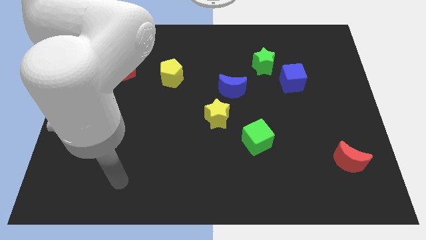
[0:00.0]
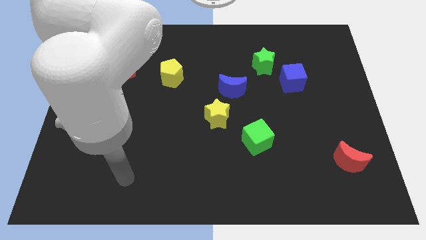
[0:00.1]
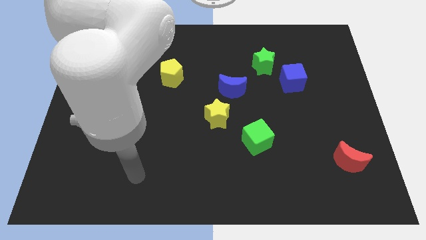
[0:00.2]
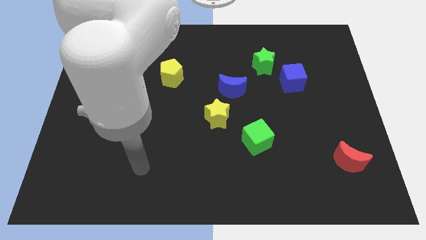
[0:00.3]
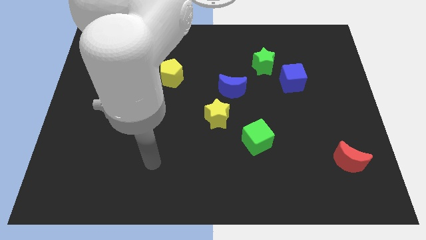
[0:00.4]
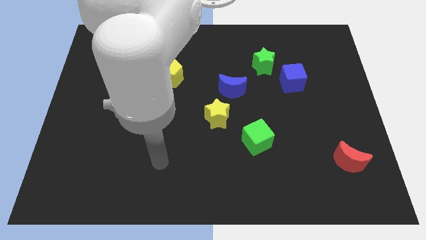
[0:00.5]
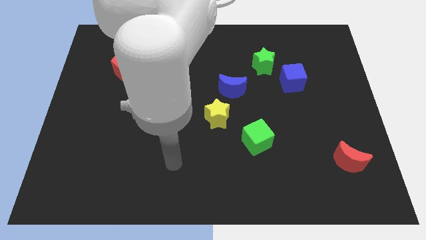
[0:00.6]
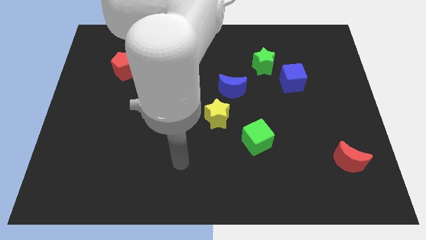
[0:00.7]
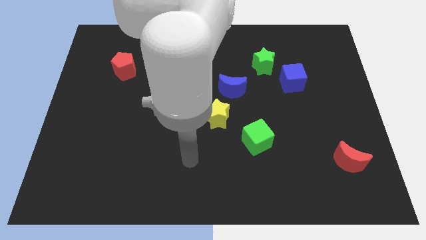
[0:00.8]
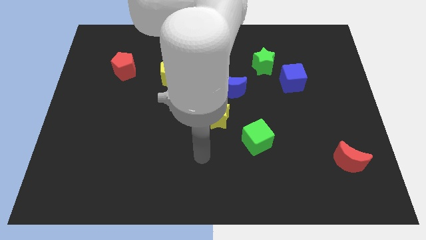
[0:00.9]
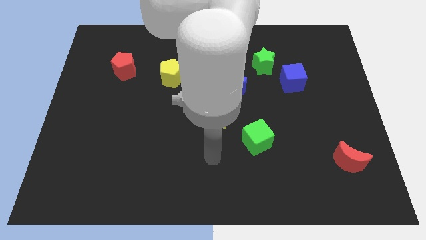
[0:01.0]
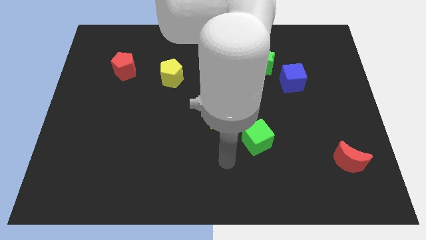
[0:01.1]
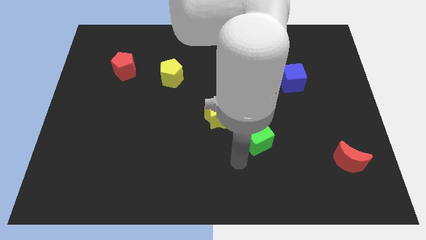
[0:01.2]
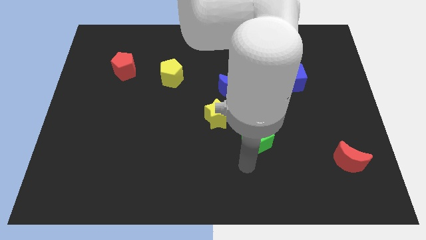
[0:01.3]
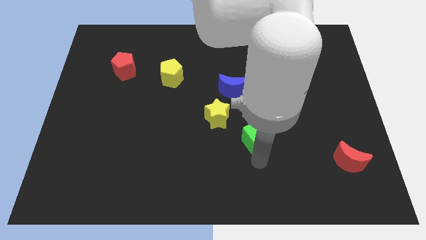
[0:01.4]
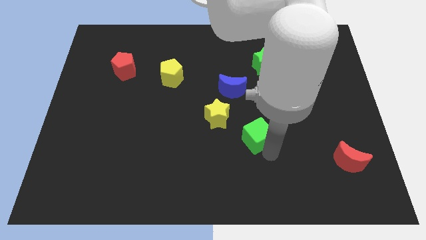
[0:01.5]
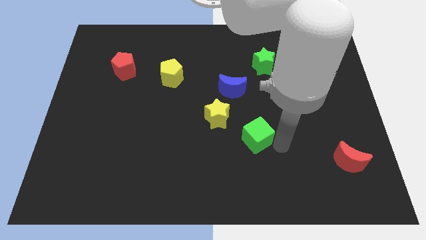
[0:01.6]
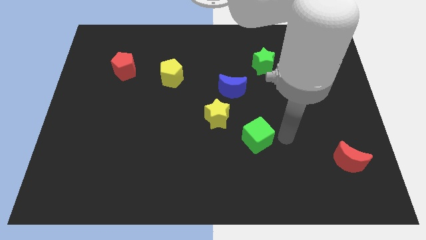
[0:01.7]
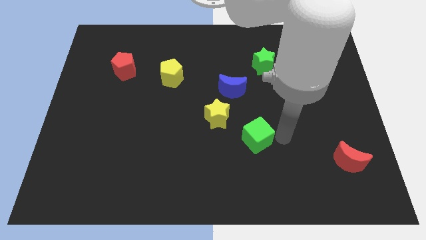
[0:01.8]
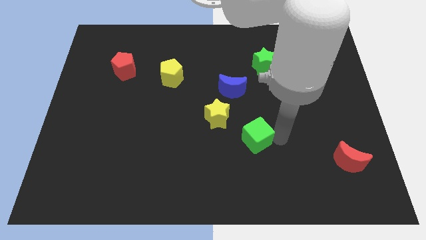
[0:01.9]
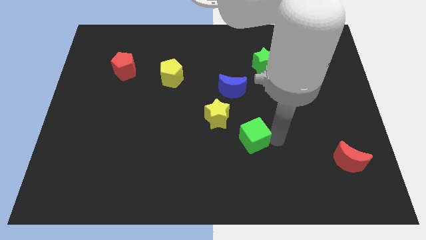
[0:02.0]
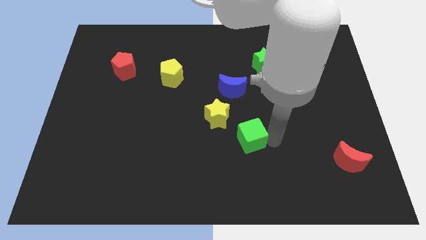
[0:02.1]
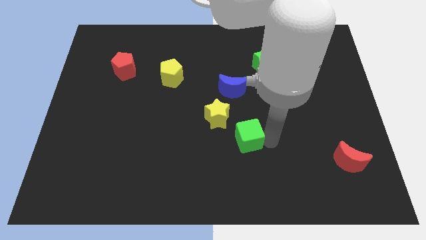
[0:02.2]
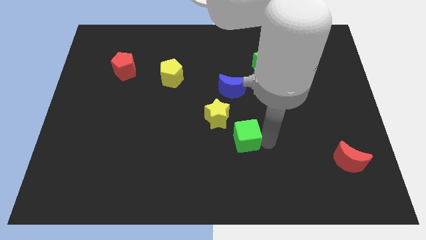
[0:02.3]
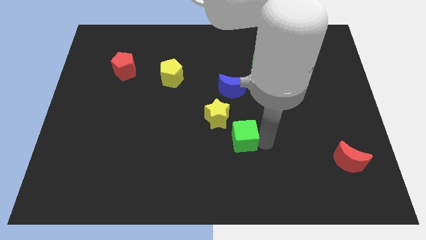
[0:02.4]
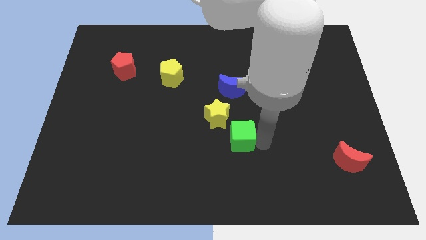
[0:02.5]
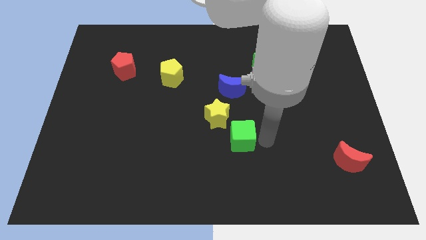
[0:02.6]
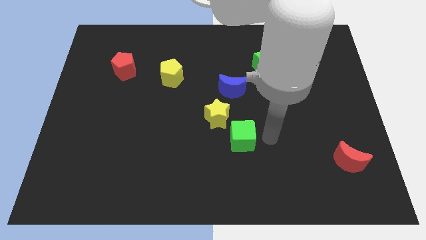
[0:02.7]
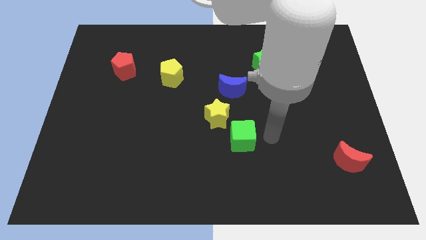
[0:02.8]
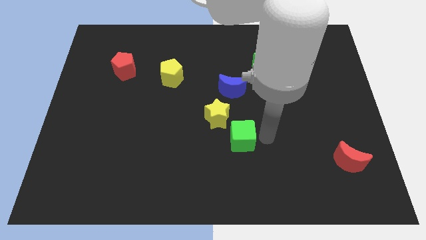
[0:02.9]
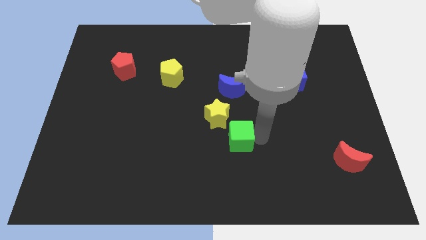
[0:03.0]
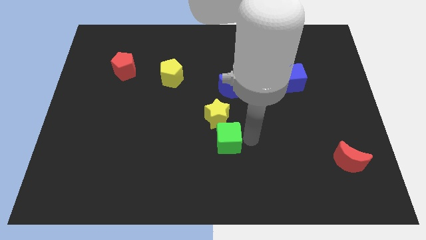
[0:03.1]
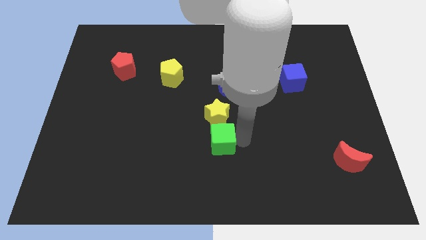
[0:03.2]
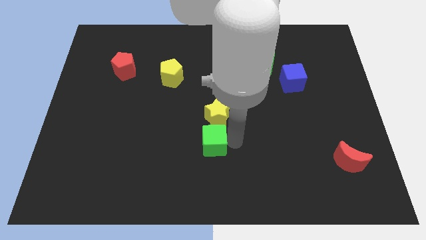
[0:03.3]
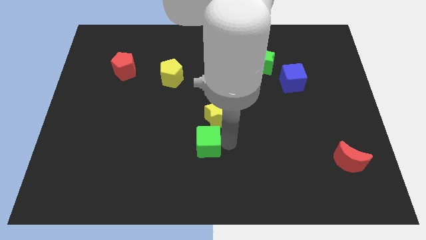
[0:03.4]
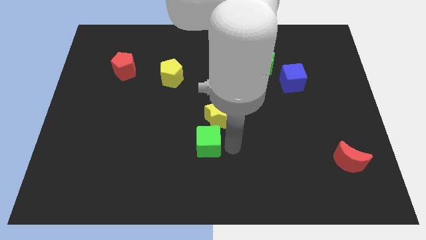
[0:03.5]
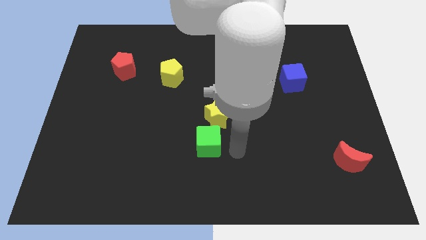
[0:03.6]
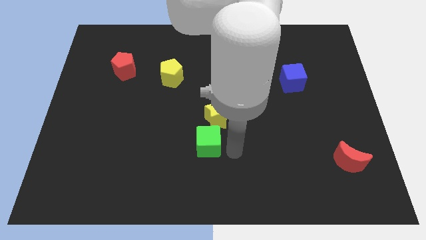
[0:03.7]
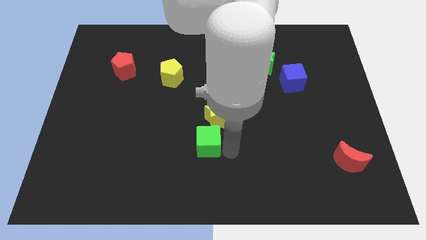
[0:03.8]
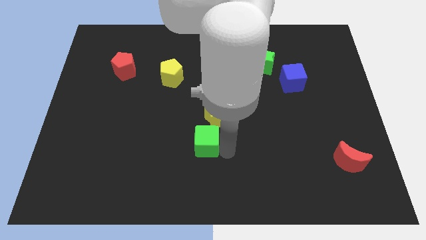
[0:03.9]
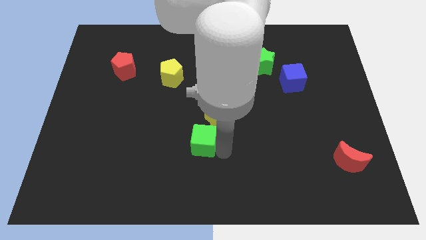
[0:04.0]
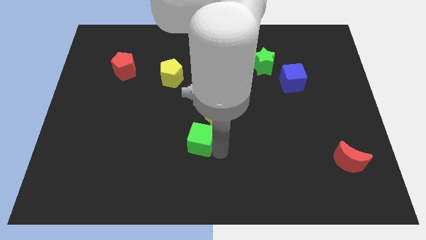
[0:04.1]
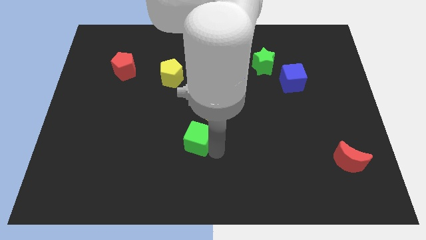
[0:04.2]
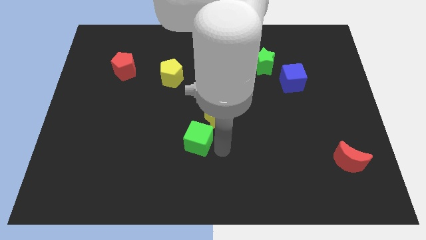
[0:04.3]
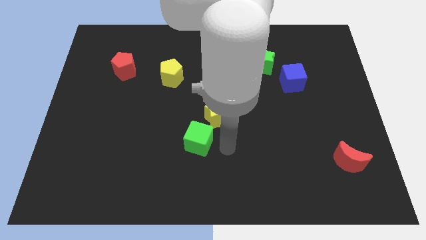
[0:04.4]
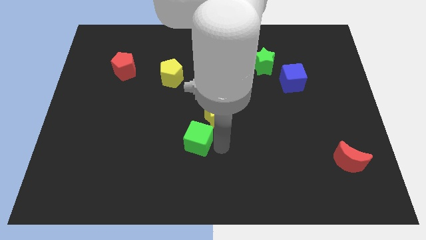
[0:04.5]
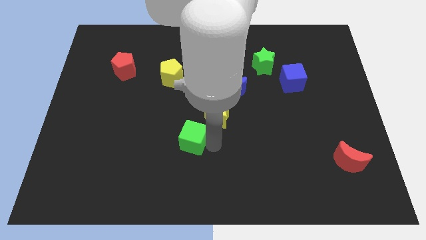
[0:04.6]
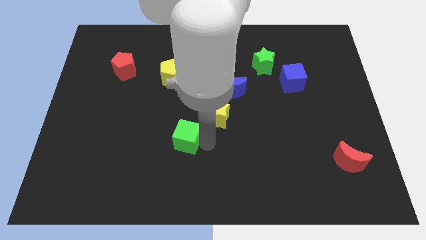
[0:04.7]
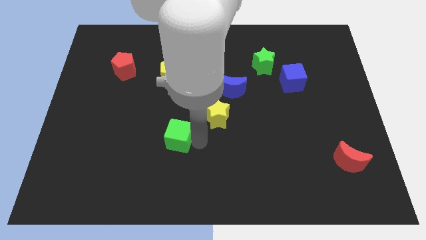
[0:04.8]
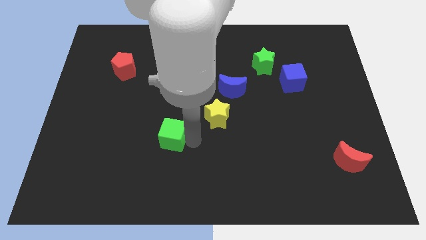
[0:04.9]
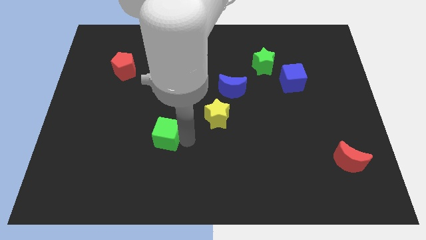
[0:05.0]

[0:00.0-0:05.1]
move the green cube to the left

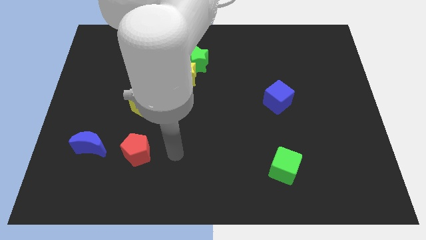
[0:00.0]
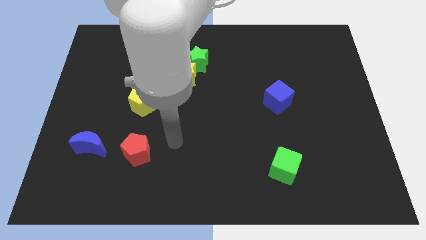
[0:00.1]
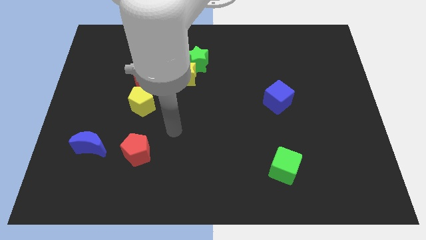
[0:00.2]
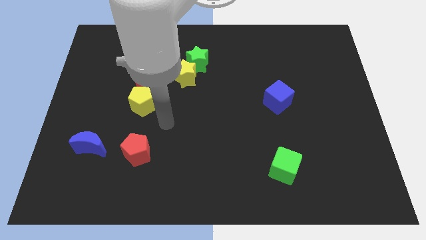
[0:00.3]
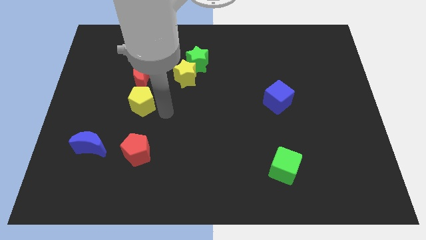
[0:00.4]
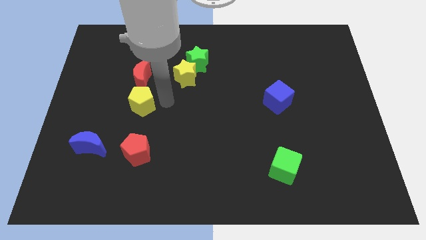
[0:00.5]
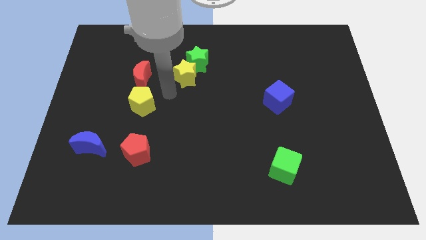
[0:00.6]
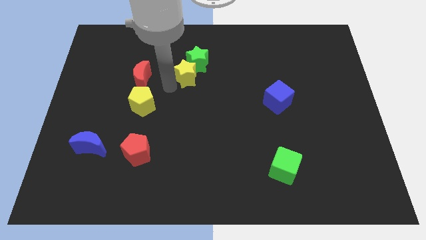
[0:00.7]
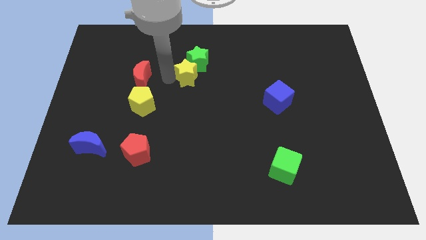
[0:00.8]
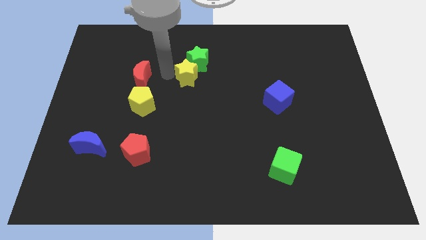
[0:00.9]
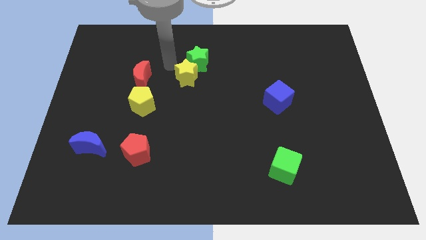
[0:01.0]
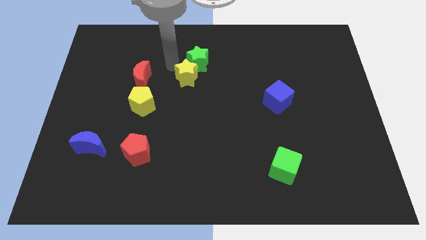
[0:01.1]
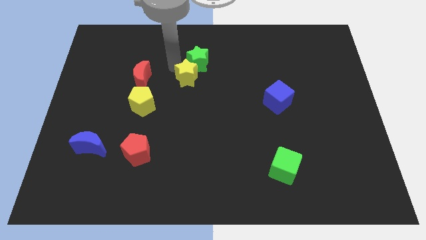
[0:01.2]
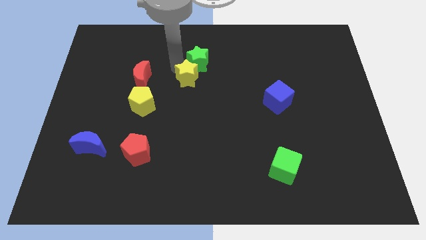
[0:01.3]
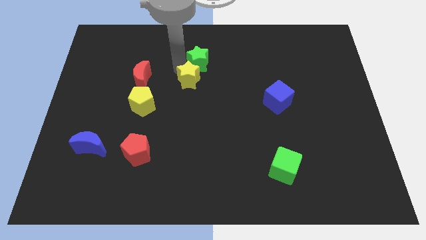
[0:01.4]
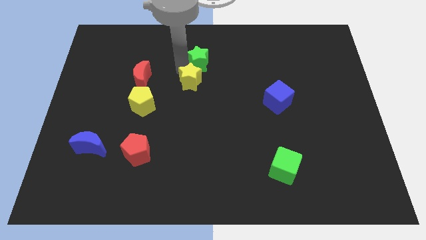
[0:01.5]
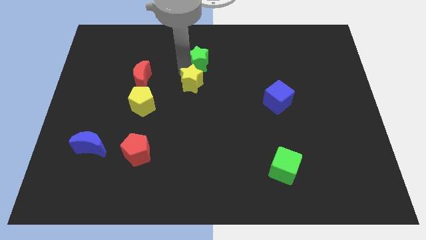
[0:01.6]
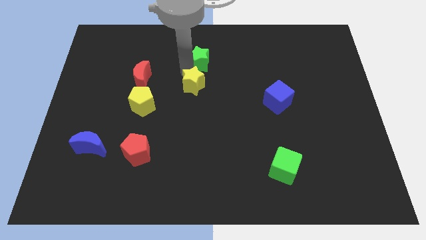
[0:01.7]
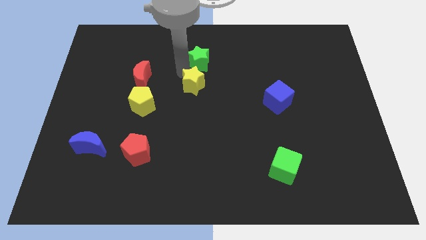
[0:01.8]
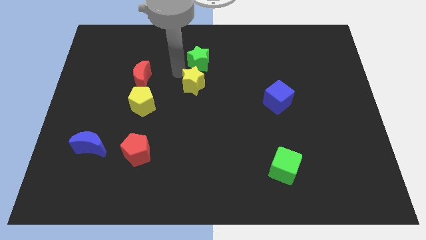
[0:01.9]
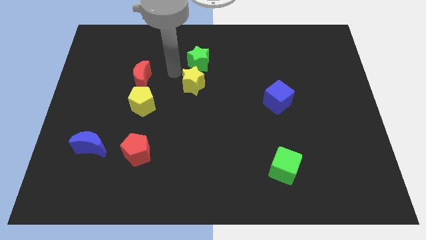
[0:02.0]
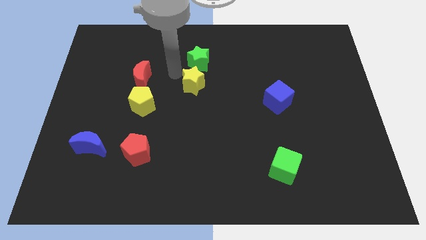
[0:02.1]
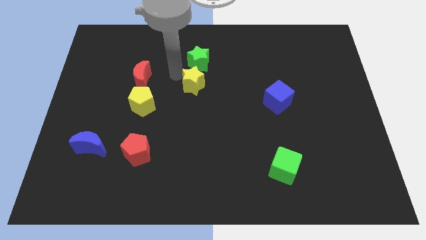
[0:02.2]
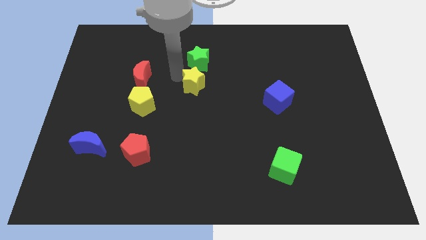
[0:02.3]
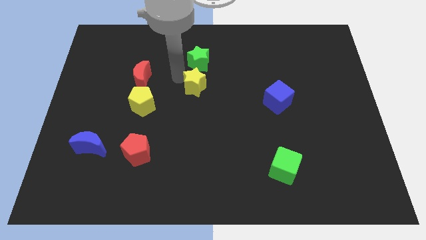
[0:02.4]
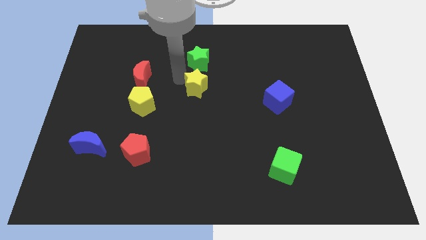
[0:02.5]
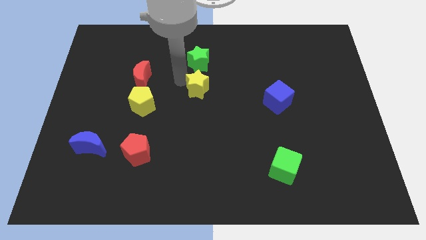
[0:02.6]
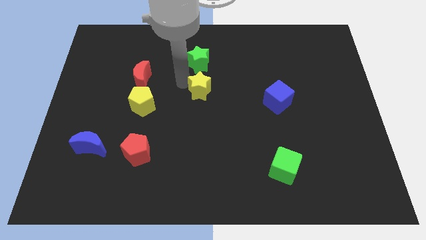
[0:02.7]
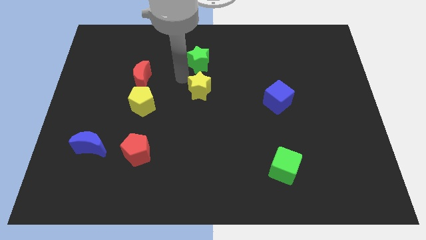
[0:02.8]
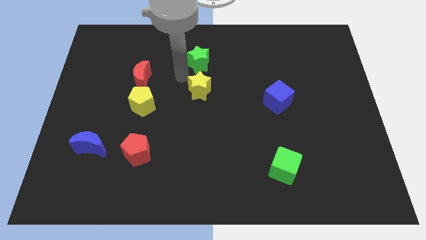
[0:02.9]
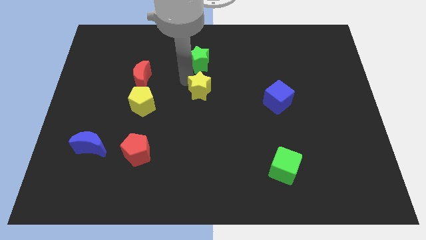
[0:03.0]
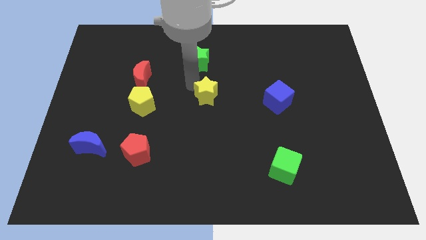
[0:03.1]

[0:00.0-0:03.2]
push the yellow star diagonally down and to the right a bit
